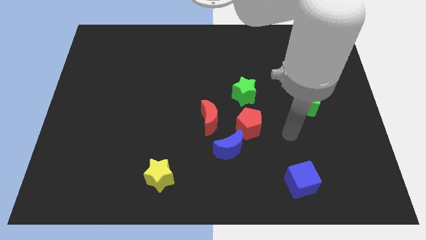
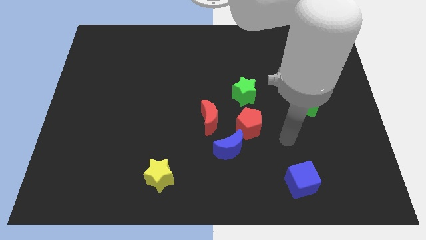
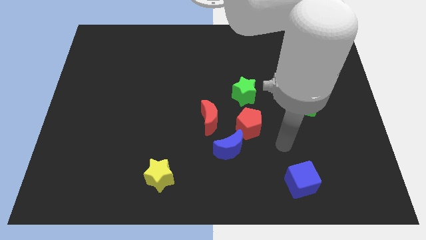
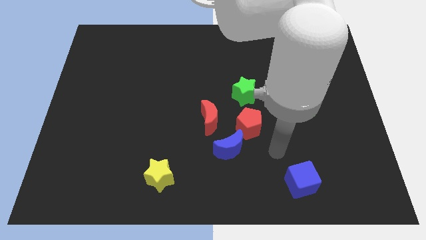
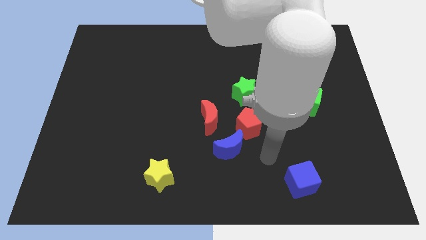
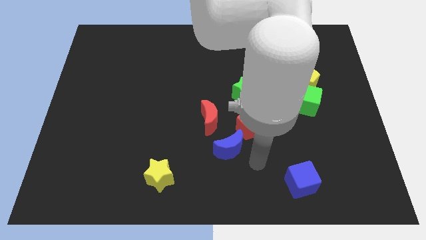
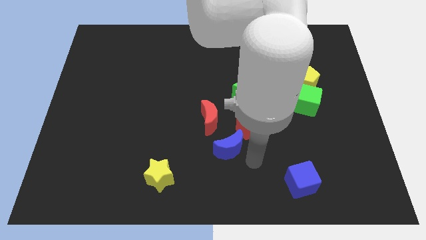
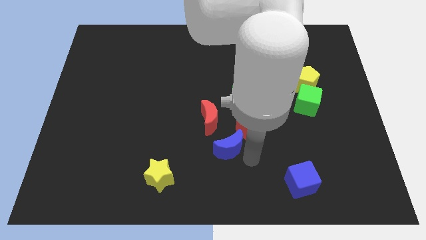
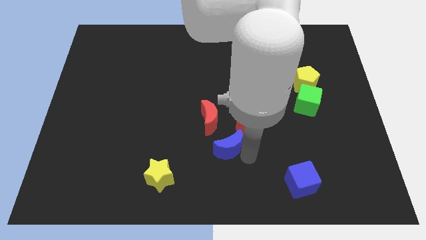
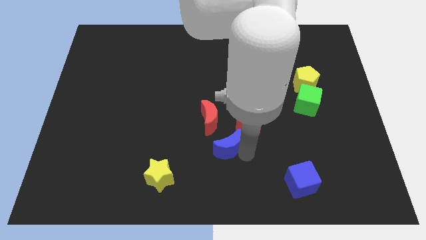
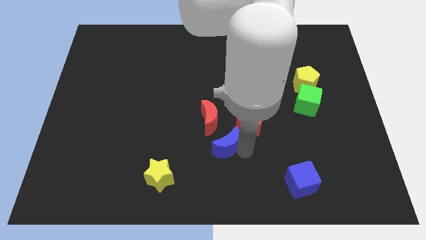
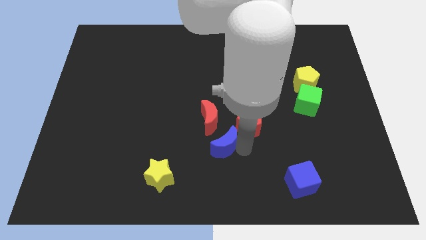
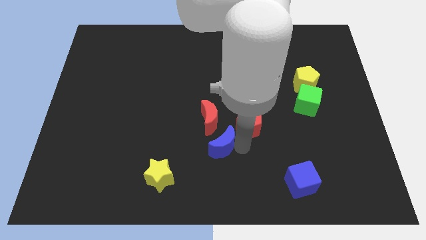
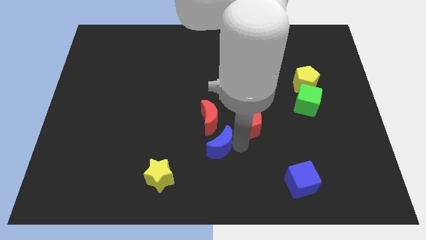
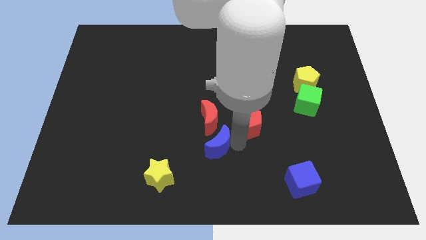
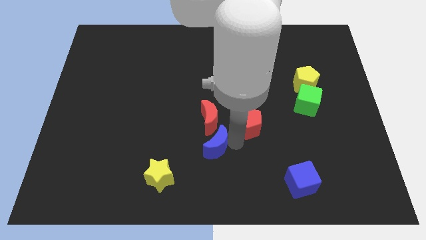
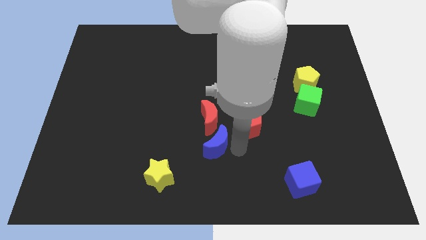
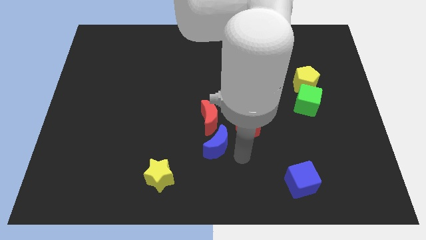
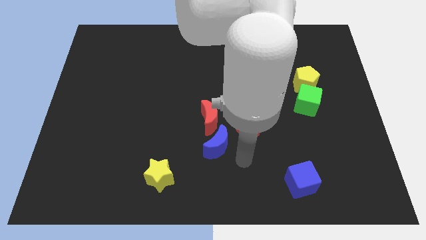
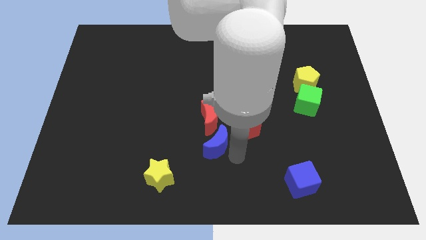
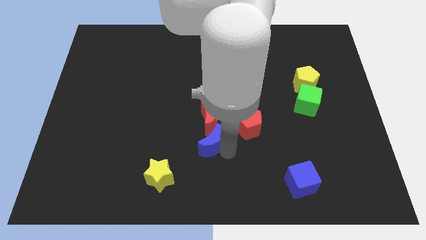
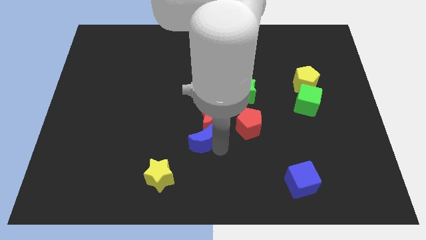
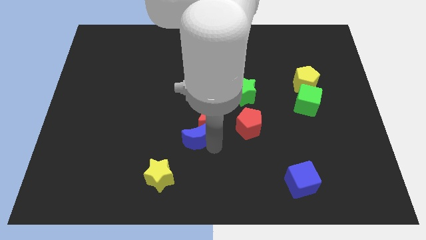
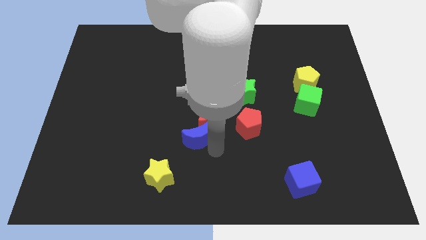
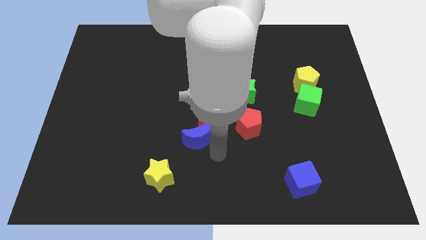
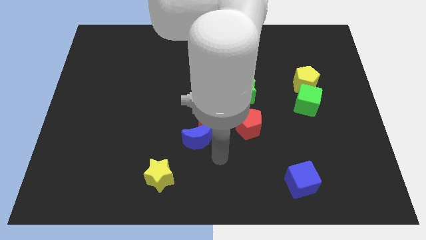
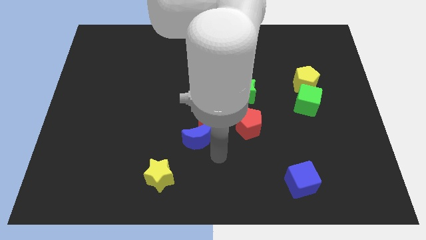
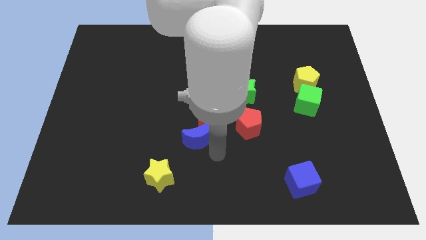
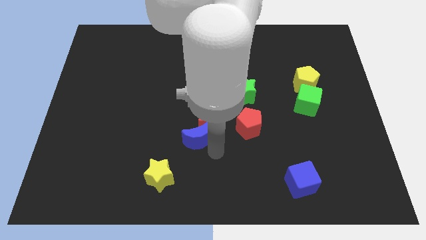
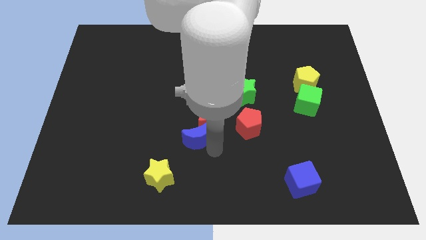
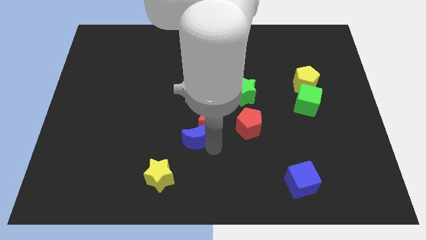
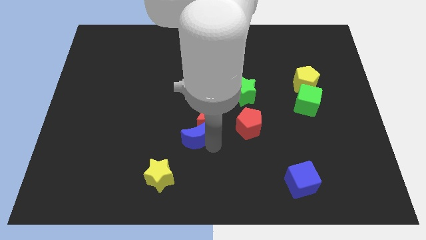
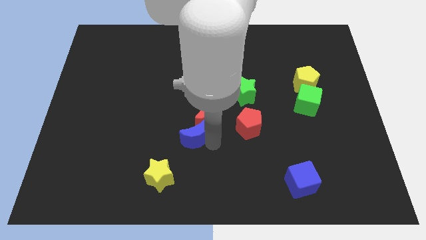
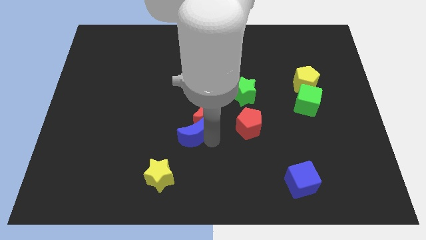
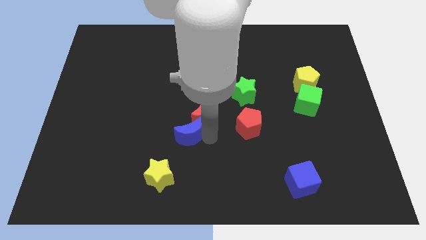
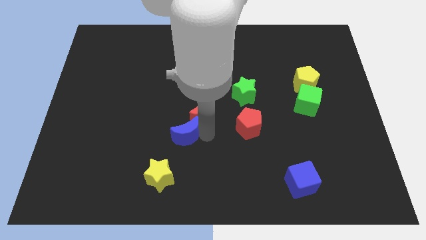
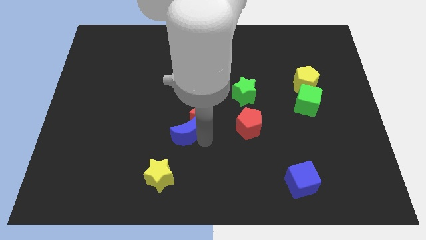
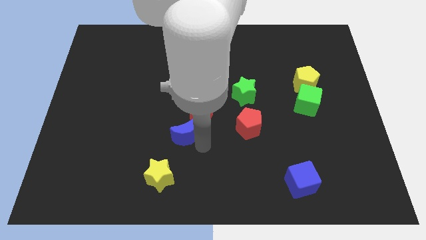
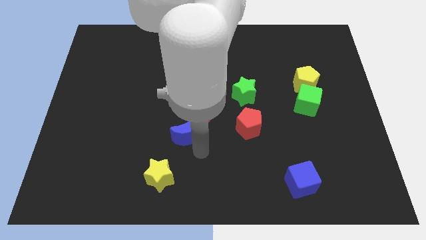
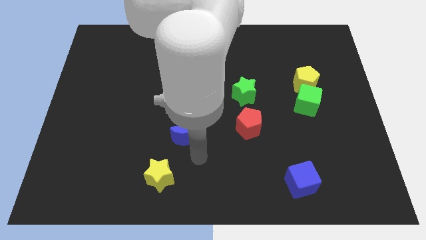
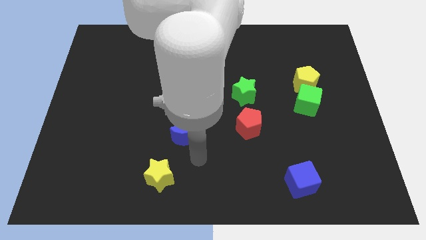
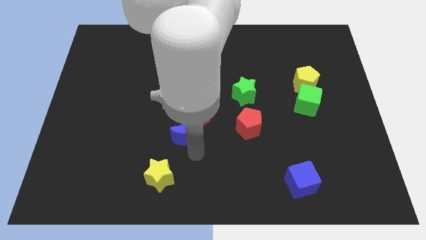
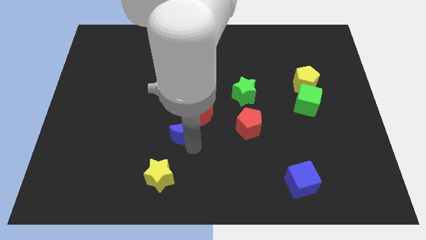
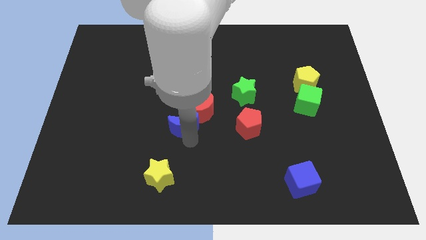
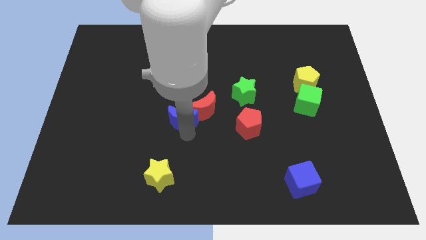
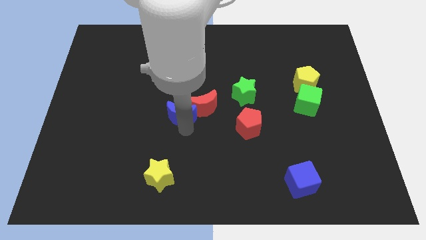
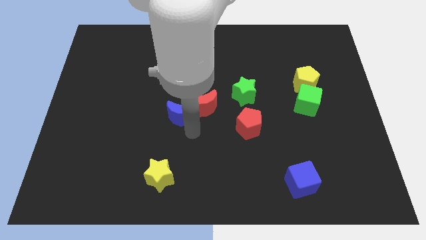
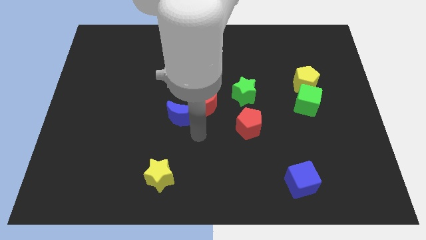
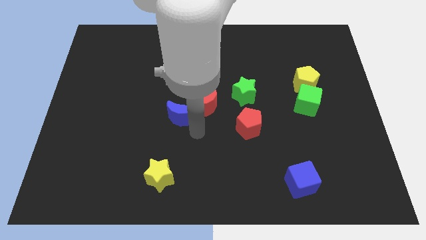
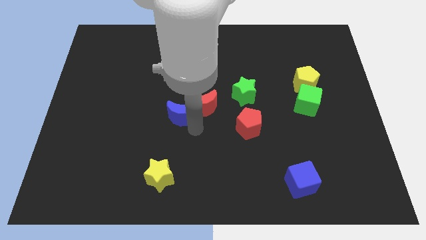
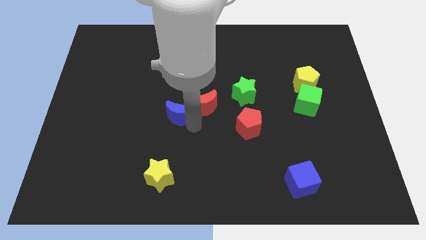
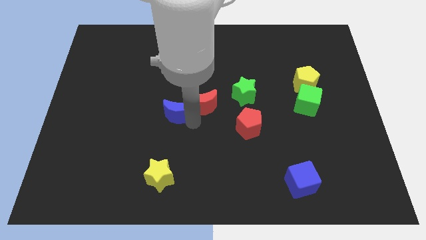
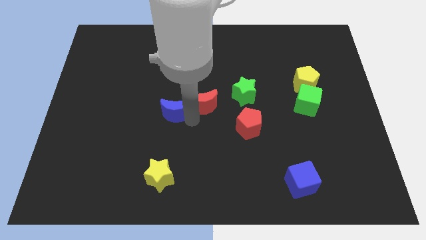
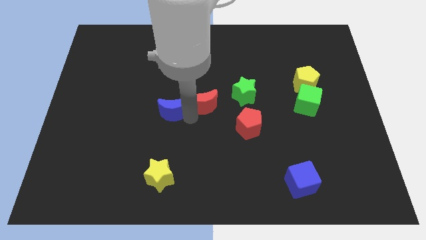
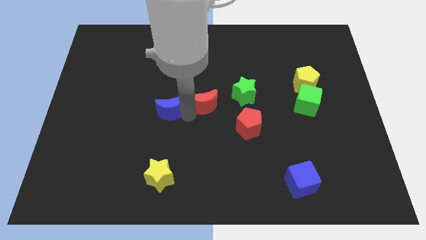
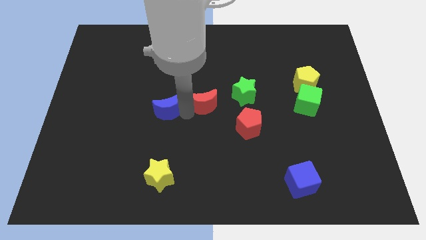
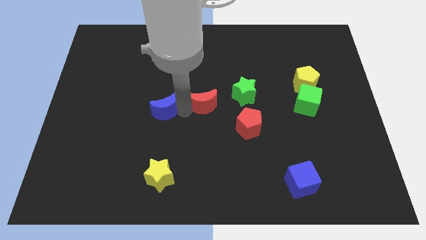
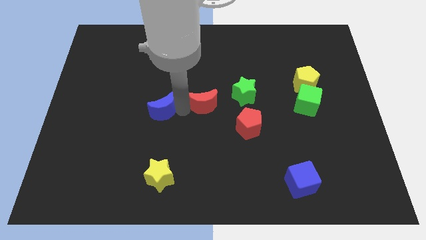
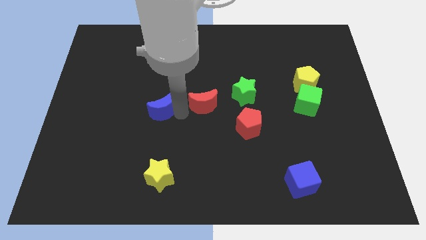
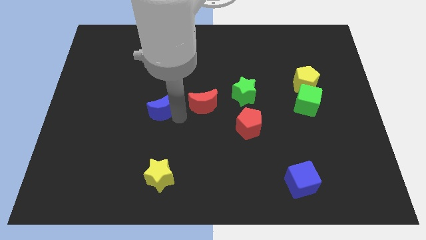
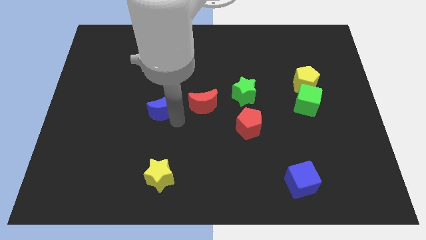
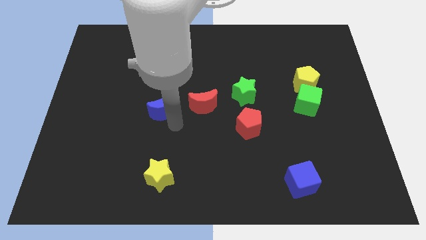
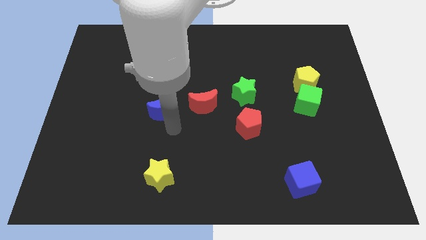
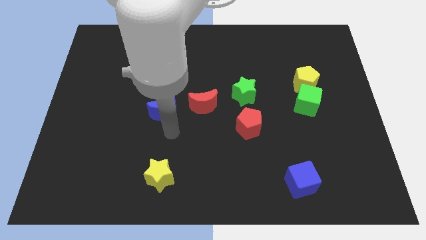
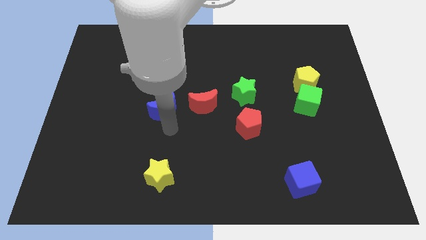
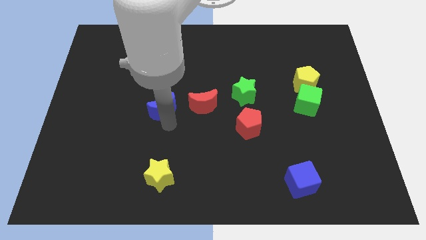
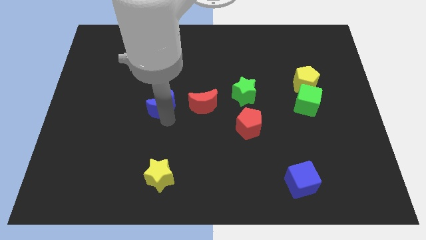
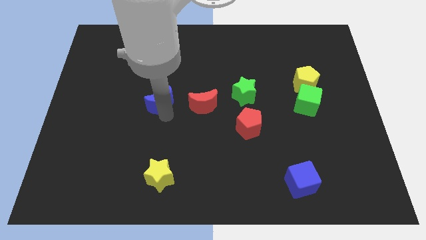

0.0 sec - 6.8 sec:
slide the blue moon up and to the left diagonally

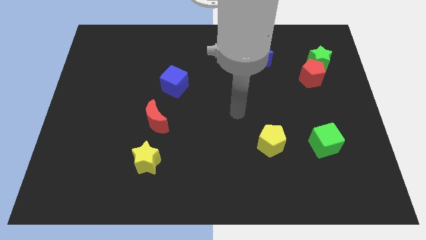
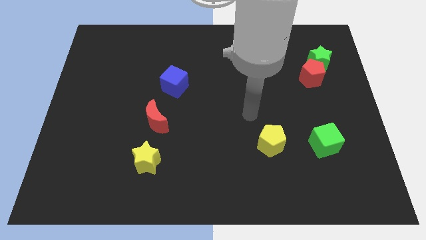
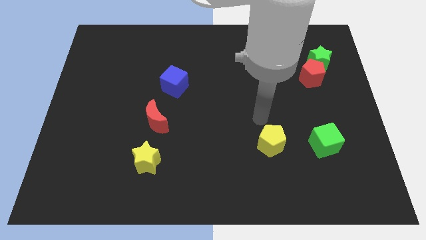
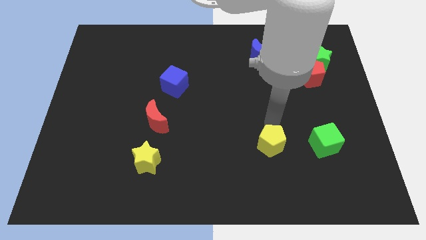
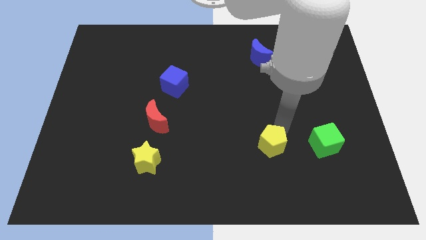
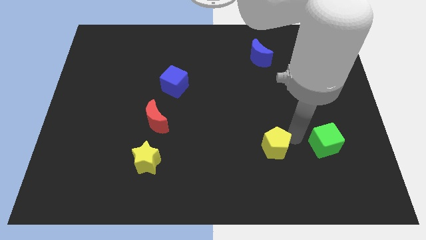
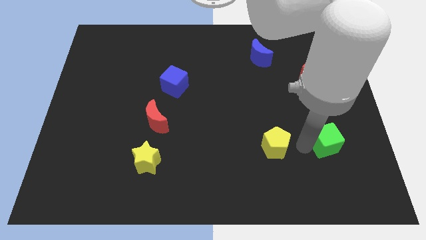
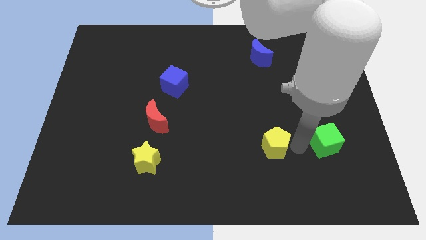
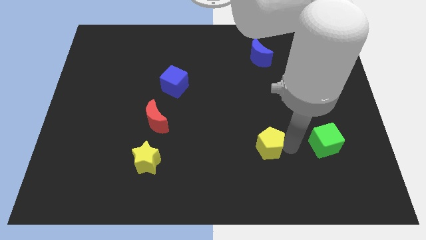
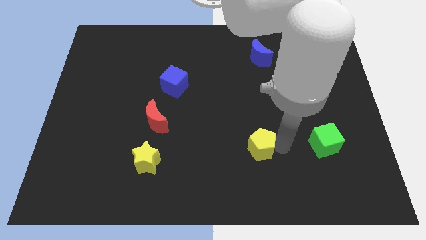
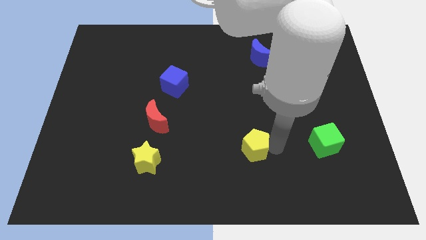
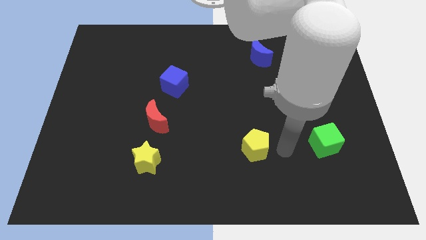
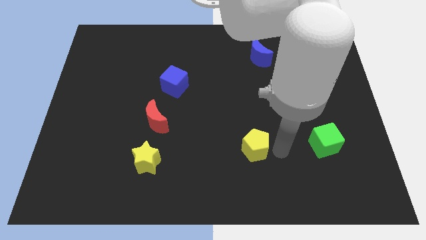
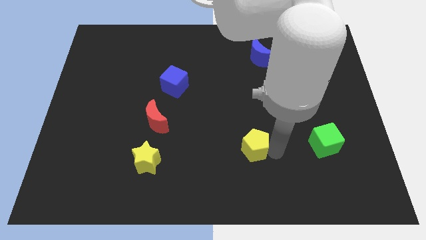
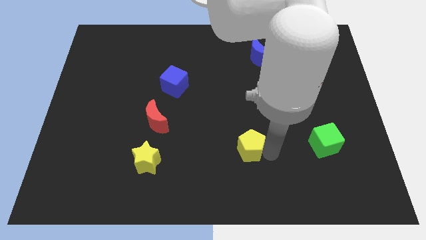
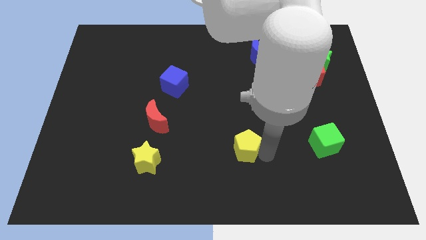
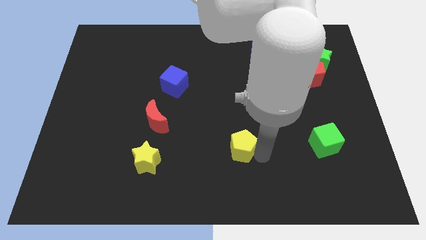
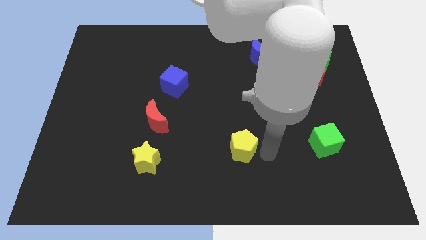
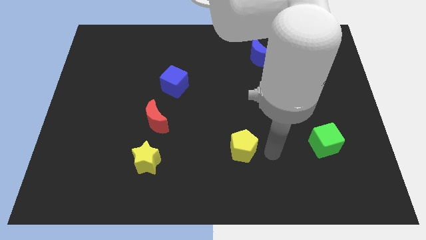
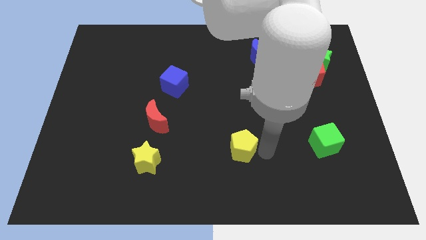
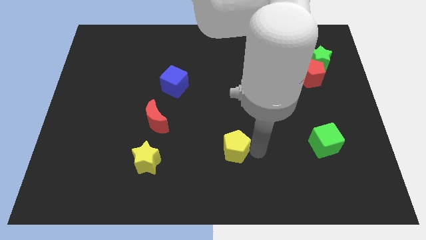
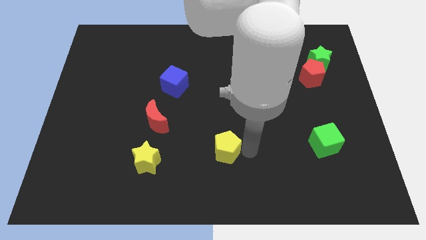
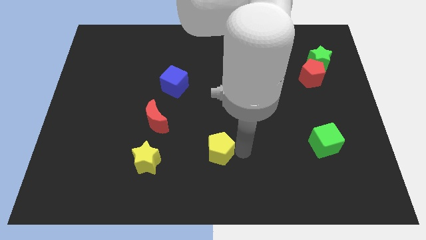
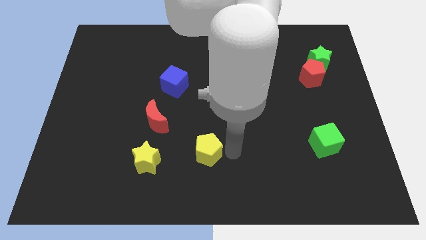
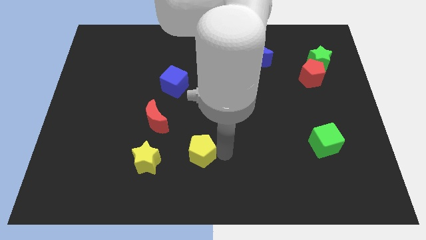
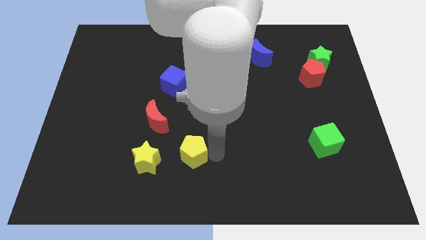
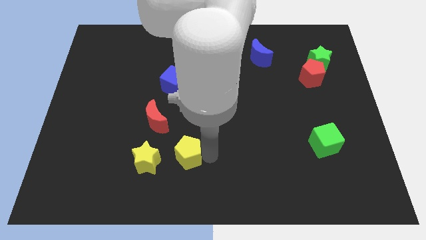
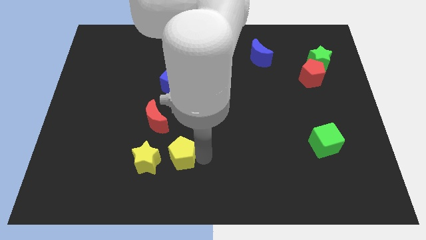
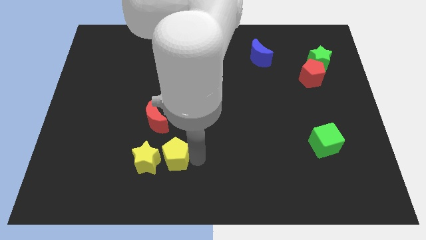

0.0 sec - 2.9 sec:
push the yellow pentagon left
